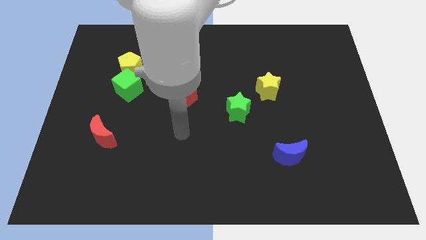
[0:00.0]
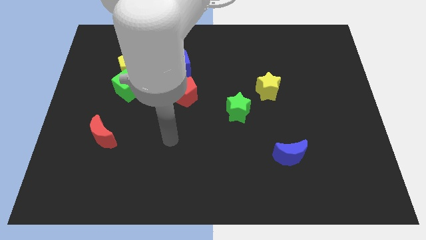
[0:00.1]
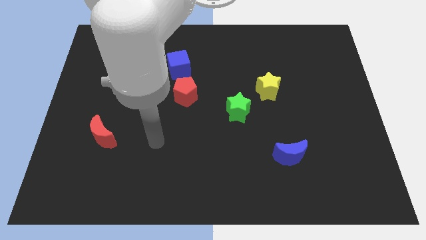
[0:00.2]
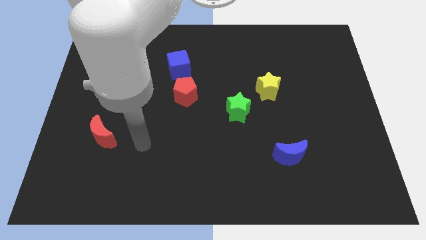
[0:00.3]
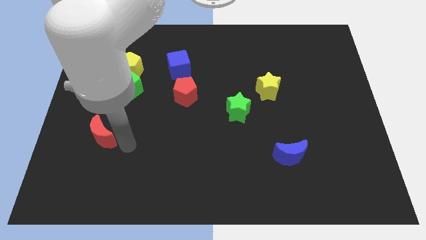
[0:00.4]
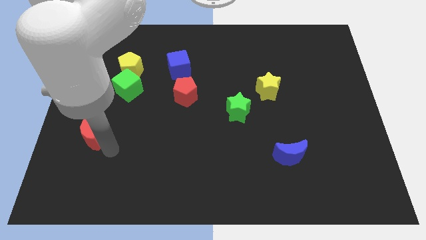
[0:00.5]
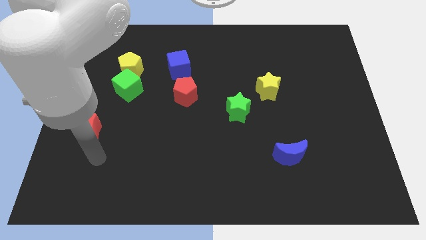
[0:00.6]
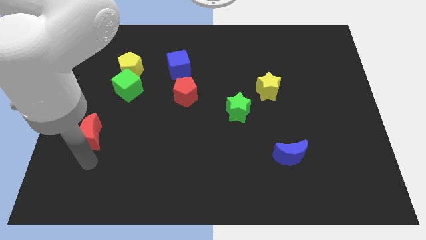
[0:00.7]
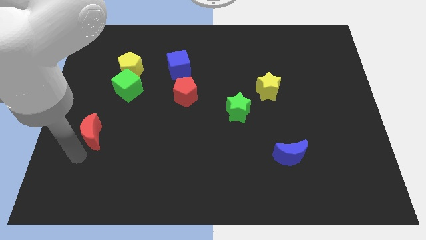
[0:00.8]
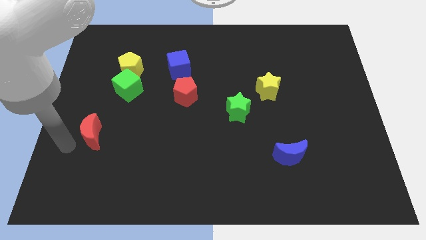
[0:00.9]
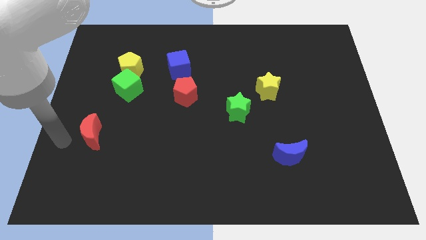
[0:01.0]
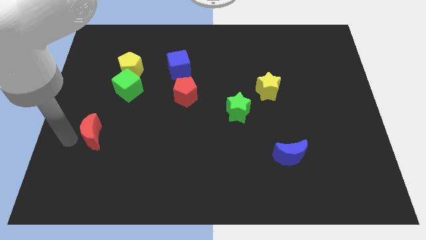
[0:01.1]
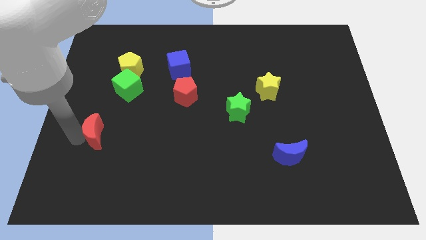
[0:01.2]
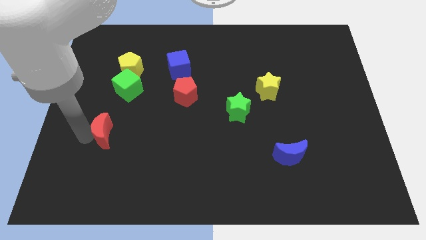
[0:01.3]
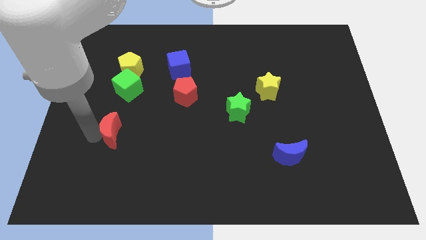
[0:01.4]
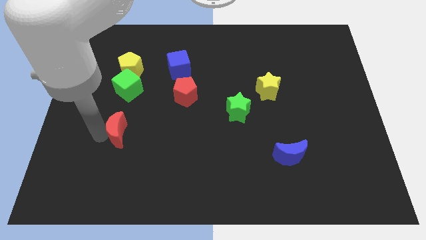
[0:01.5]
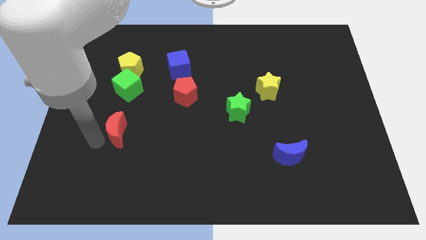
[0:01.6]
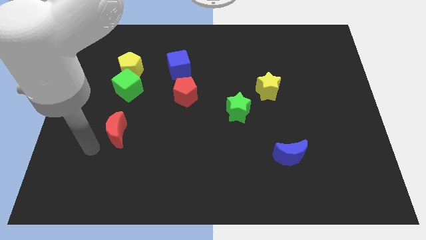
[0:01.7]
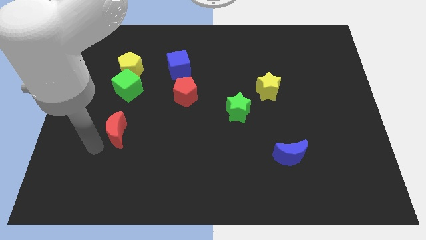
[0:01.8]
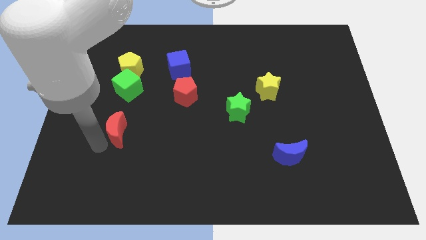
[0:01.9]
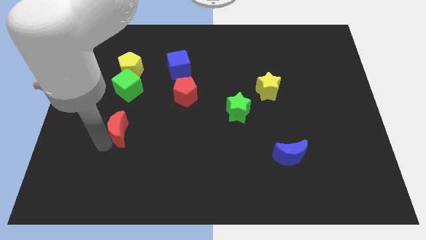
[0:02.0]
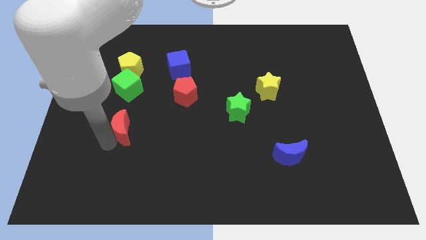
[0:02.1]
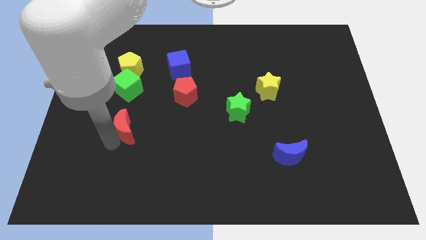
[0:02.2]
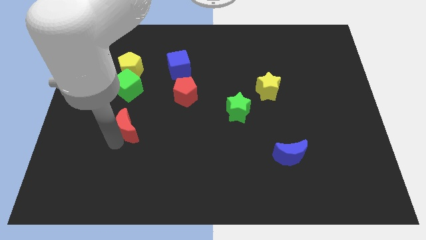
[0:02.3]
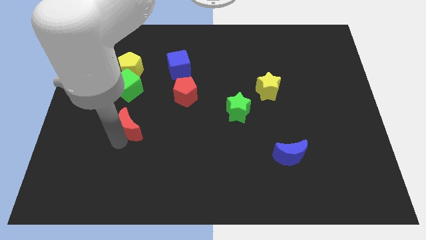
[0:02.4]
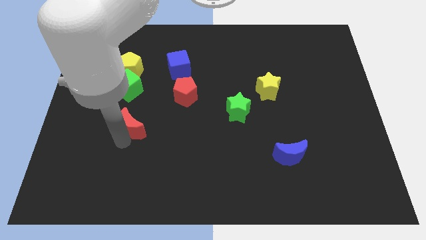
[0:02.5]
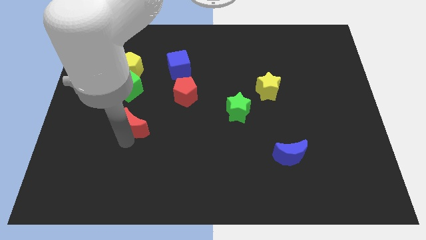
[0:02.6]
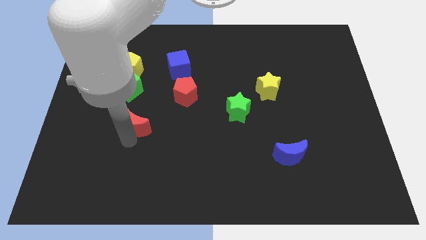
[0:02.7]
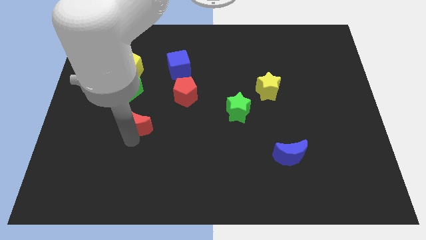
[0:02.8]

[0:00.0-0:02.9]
slide the red moon diagonally upwards and to the right a bit

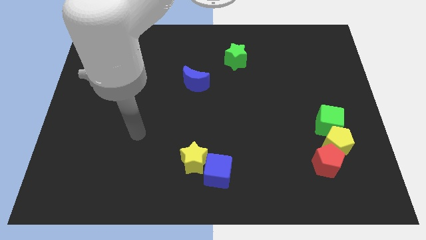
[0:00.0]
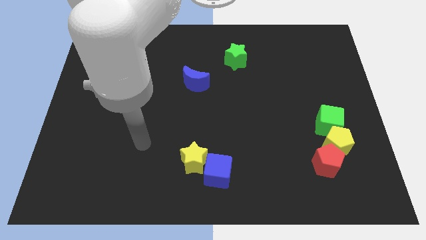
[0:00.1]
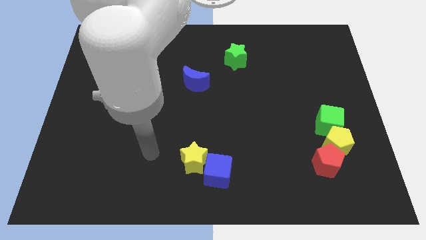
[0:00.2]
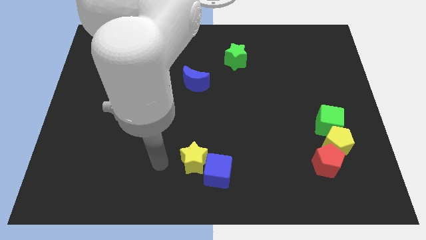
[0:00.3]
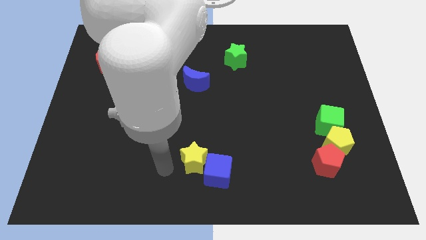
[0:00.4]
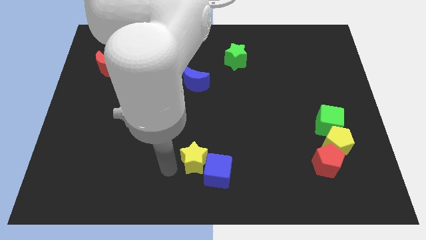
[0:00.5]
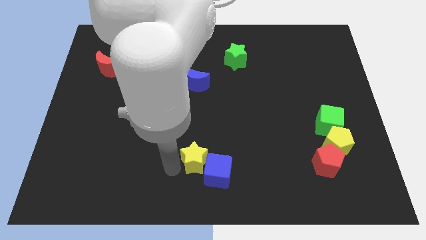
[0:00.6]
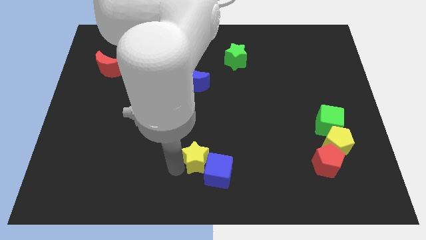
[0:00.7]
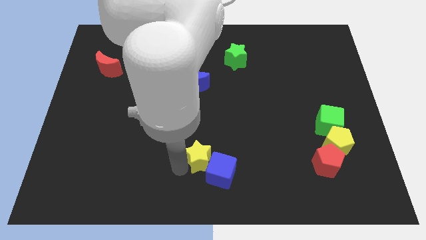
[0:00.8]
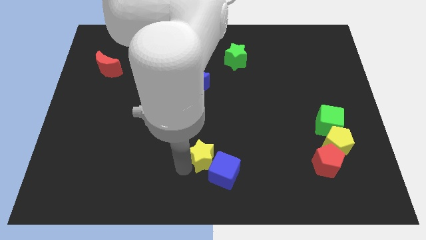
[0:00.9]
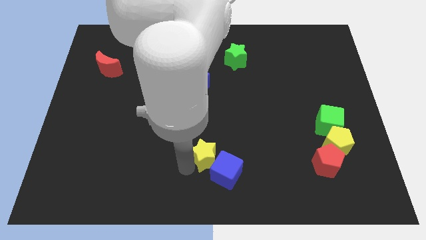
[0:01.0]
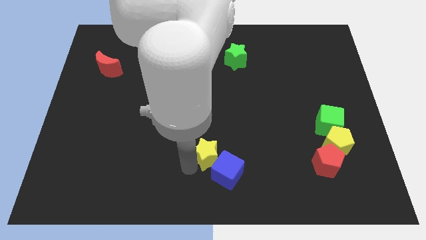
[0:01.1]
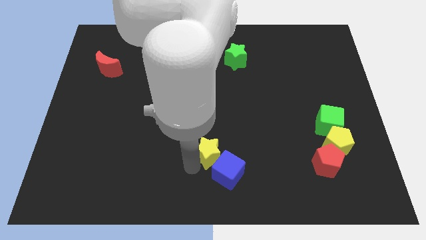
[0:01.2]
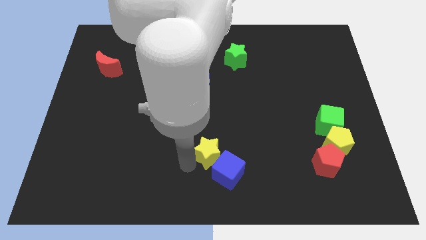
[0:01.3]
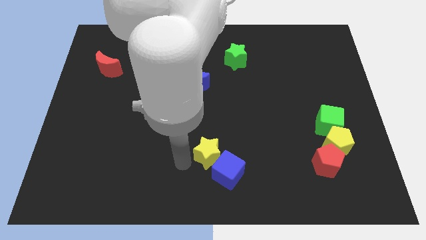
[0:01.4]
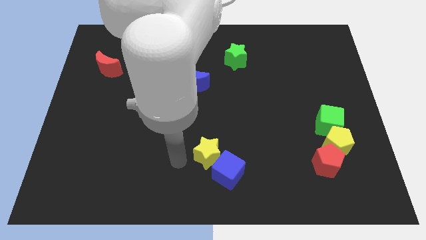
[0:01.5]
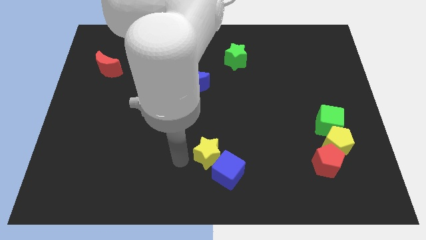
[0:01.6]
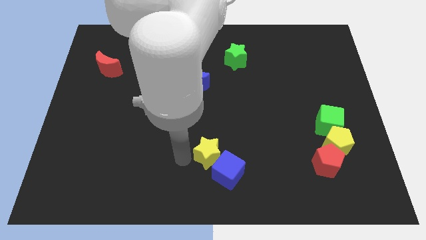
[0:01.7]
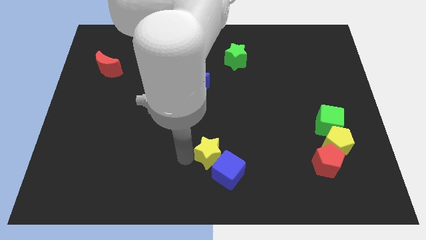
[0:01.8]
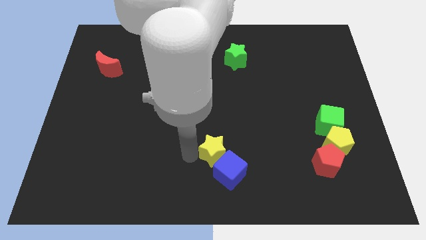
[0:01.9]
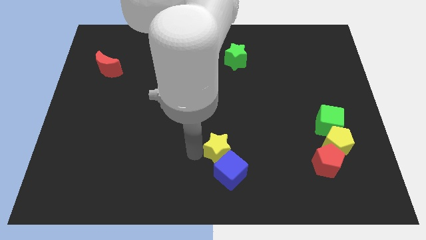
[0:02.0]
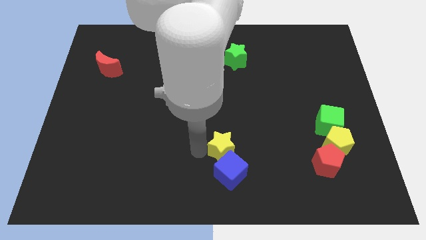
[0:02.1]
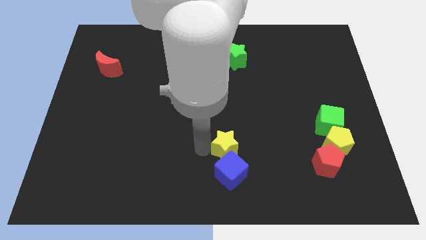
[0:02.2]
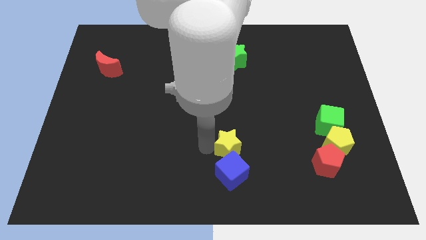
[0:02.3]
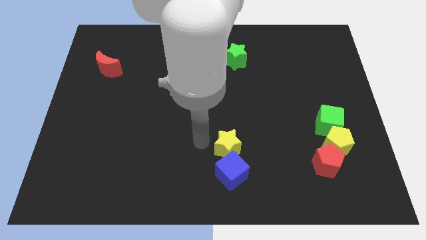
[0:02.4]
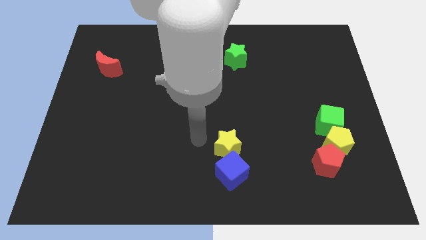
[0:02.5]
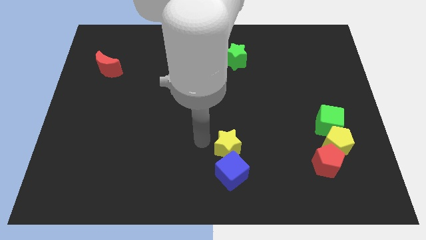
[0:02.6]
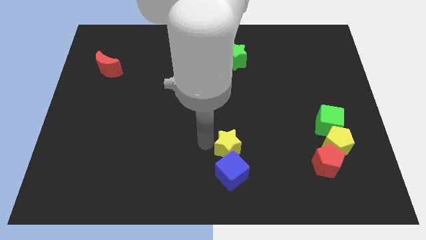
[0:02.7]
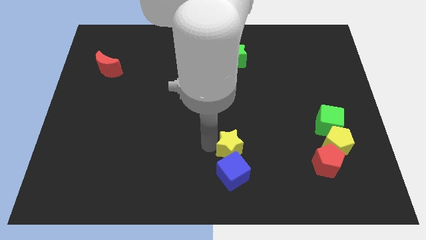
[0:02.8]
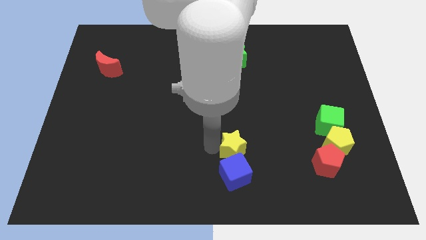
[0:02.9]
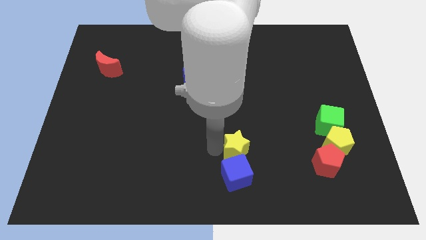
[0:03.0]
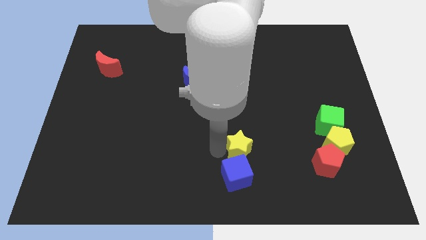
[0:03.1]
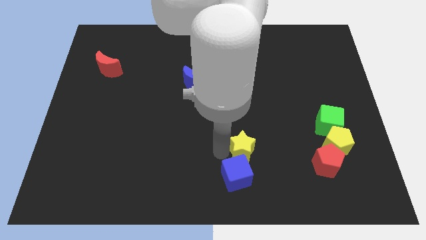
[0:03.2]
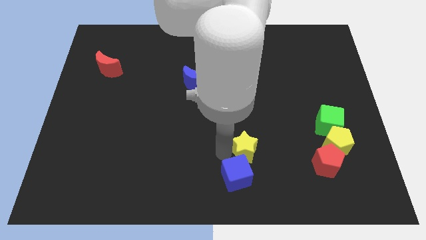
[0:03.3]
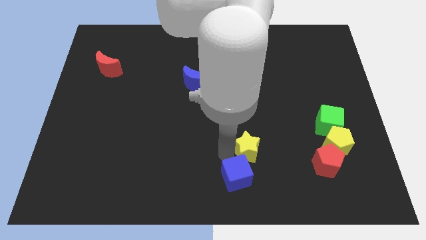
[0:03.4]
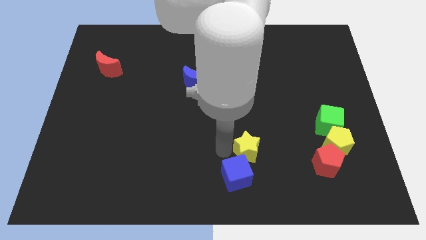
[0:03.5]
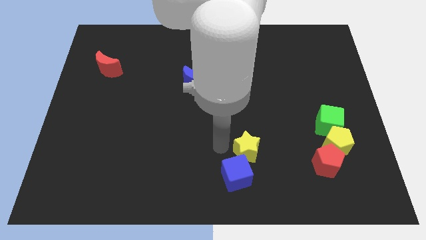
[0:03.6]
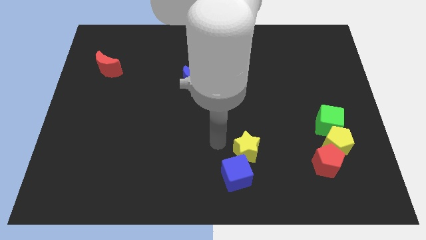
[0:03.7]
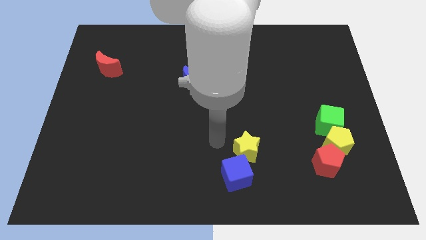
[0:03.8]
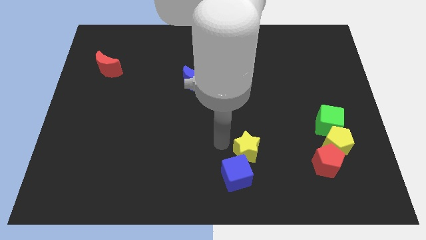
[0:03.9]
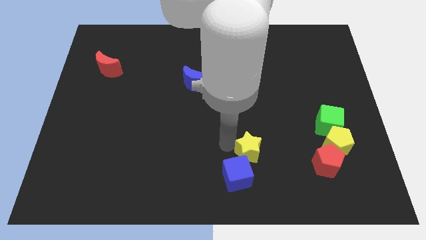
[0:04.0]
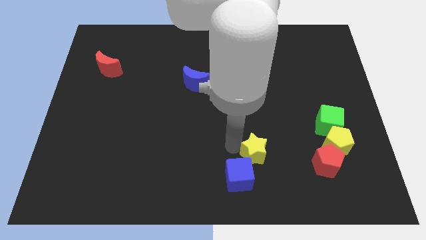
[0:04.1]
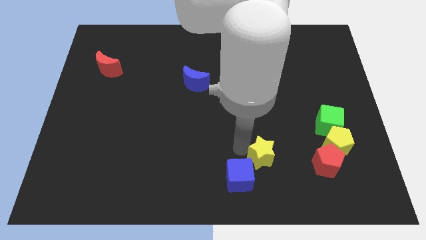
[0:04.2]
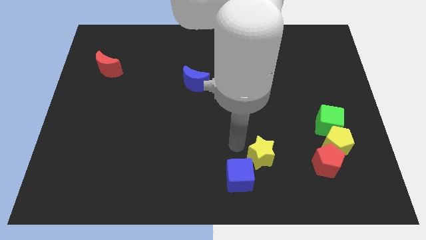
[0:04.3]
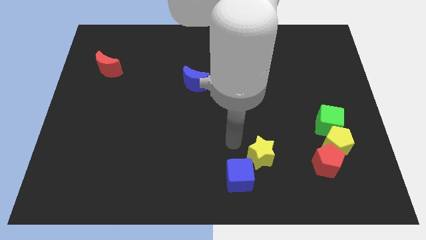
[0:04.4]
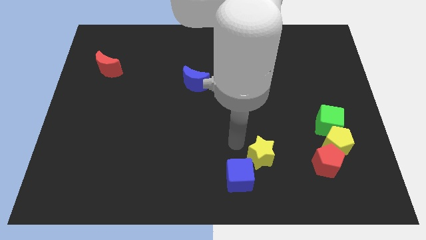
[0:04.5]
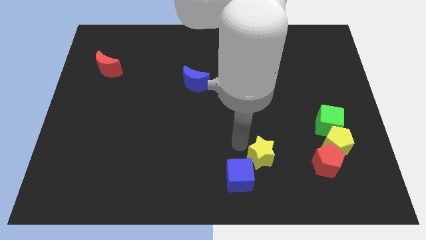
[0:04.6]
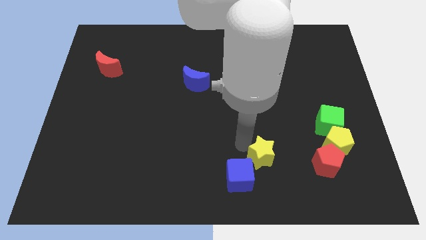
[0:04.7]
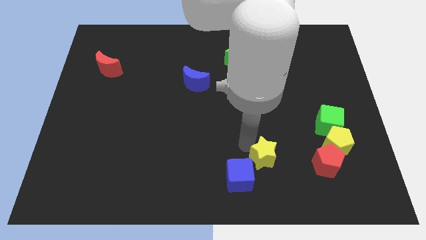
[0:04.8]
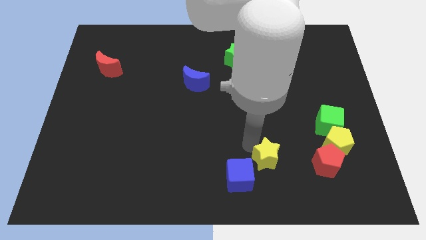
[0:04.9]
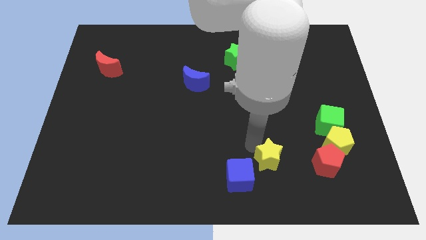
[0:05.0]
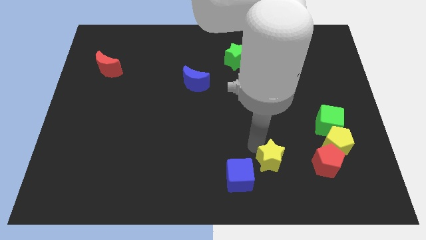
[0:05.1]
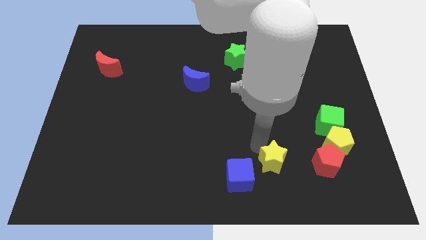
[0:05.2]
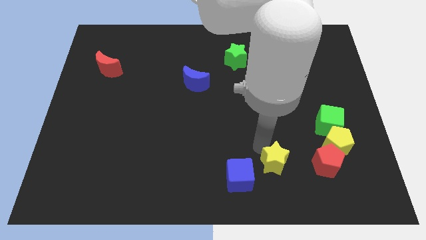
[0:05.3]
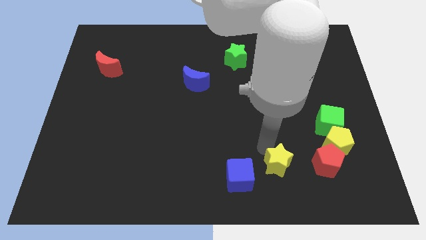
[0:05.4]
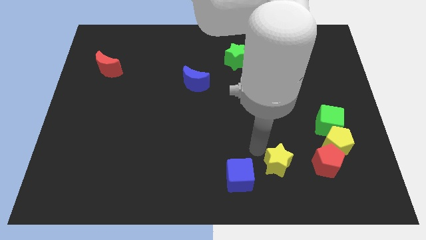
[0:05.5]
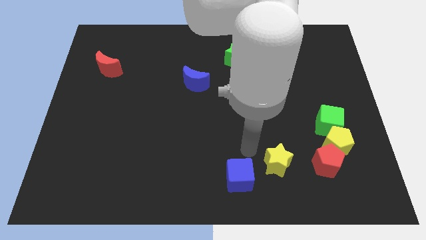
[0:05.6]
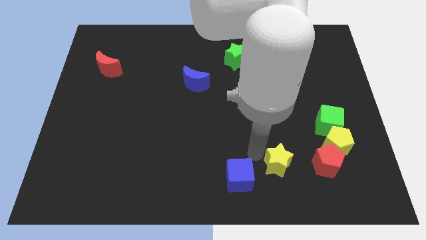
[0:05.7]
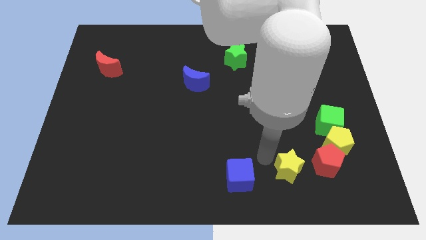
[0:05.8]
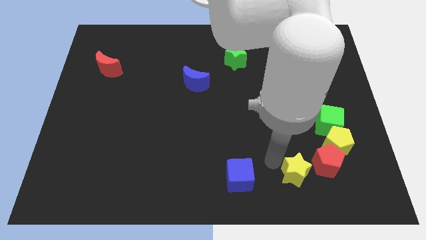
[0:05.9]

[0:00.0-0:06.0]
slide the yellow star to the right
